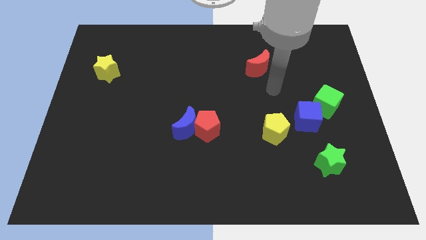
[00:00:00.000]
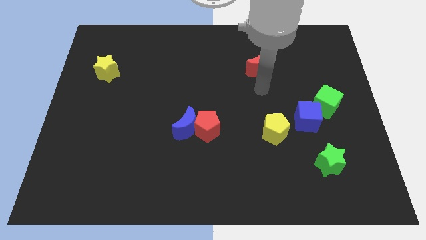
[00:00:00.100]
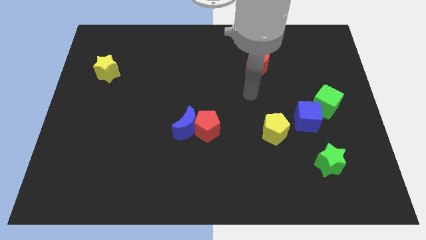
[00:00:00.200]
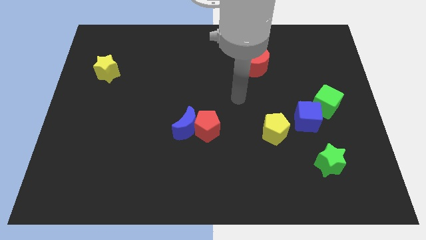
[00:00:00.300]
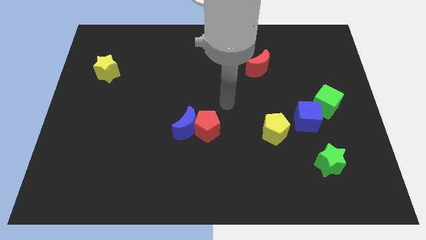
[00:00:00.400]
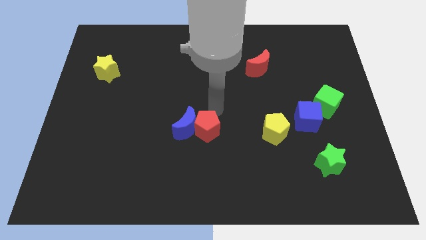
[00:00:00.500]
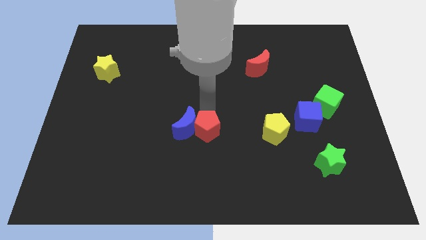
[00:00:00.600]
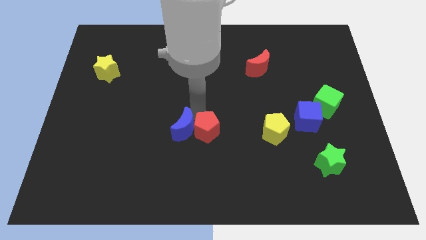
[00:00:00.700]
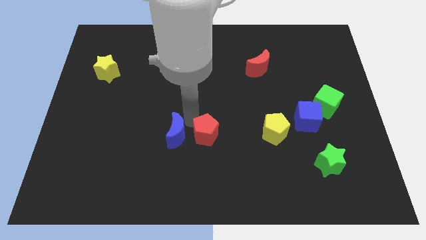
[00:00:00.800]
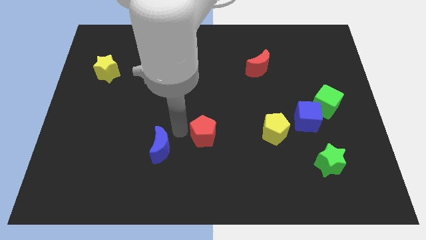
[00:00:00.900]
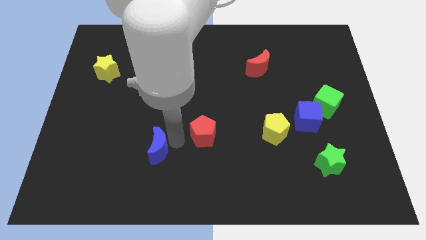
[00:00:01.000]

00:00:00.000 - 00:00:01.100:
separate the red pentagon from the blue moon

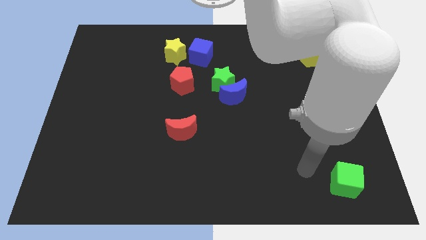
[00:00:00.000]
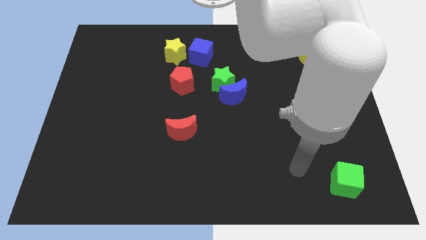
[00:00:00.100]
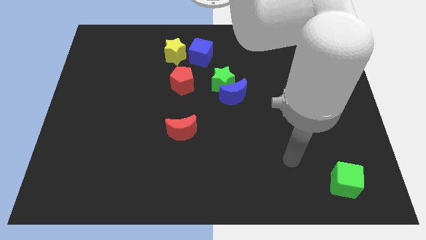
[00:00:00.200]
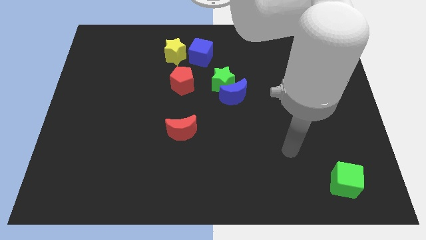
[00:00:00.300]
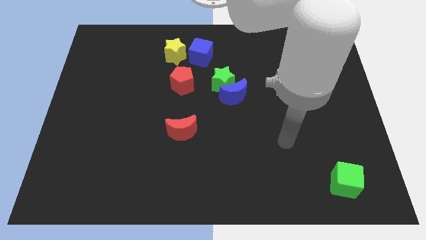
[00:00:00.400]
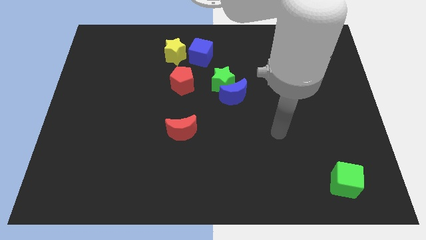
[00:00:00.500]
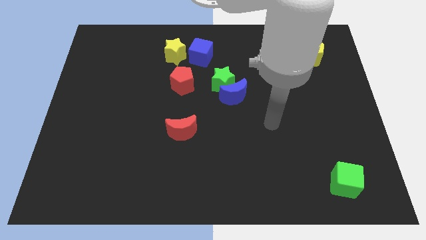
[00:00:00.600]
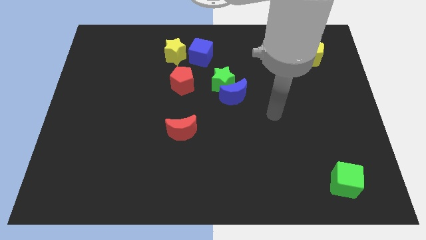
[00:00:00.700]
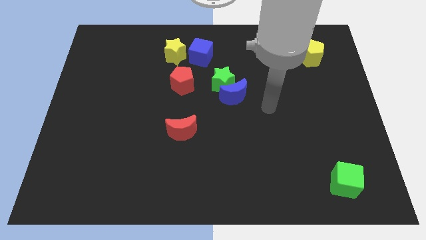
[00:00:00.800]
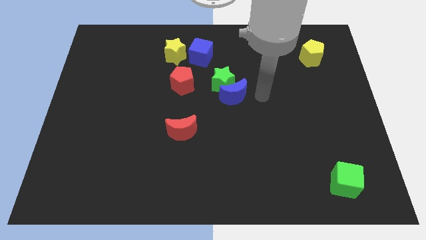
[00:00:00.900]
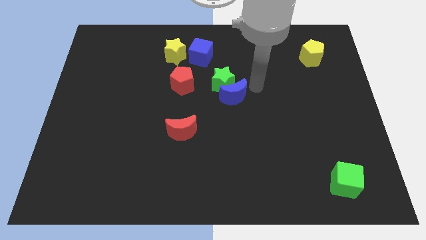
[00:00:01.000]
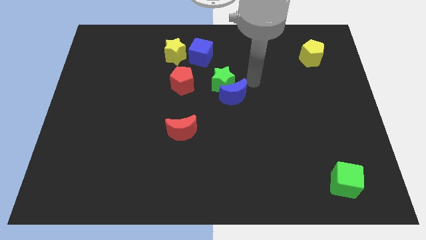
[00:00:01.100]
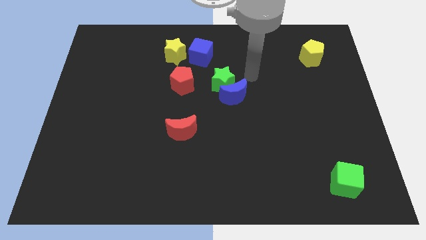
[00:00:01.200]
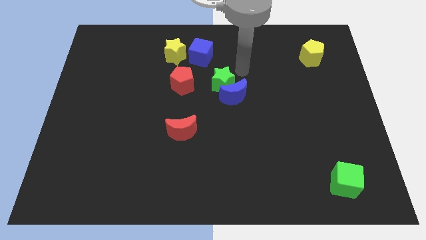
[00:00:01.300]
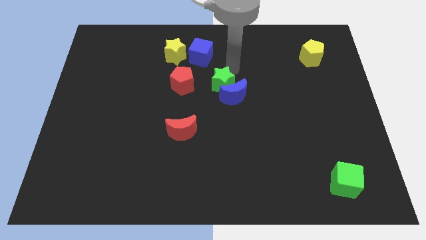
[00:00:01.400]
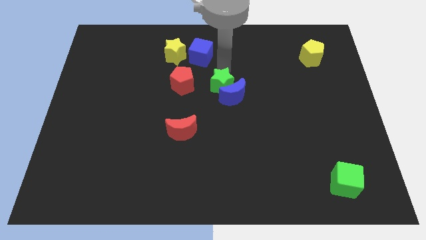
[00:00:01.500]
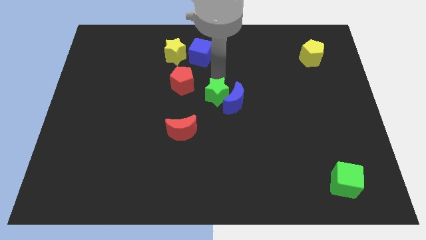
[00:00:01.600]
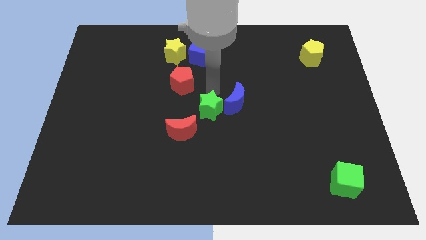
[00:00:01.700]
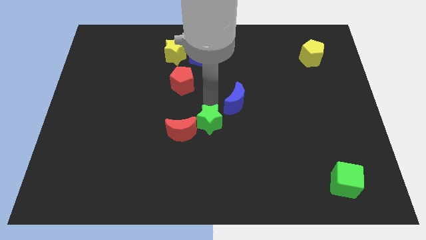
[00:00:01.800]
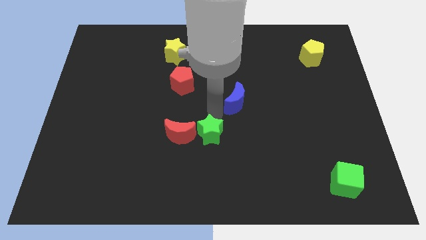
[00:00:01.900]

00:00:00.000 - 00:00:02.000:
move the blue moon away from the green star

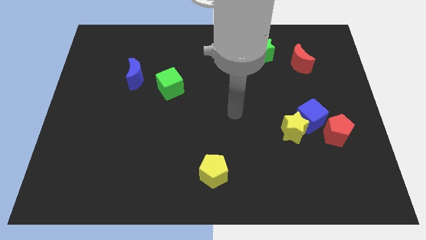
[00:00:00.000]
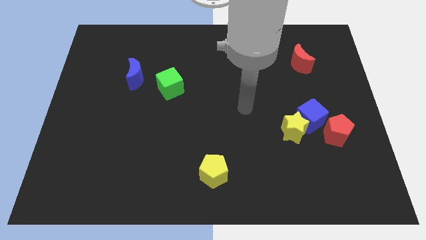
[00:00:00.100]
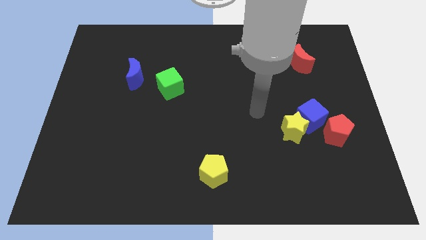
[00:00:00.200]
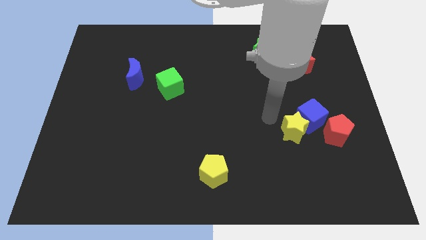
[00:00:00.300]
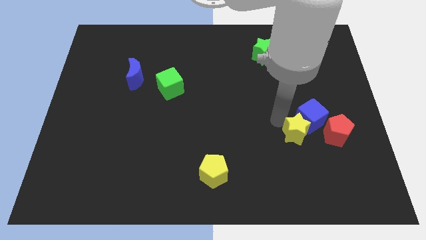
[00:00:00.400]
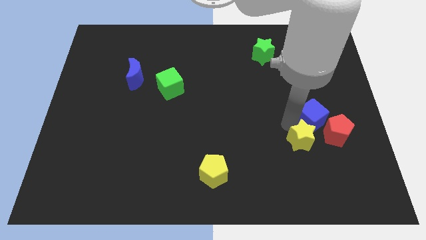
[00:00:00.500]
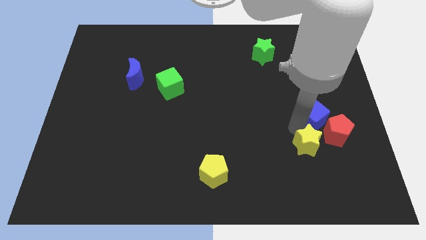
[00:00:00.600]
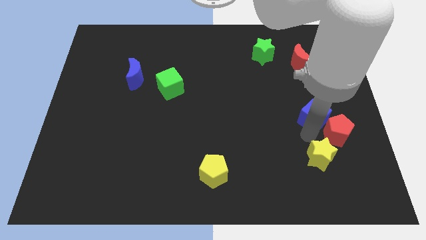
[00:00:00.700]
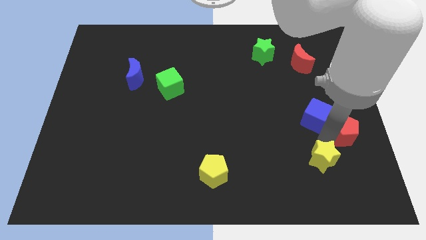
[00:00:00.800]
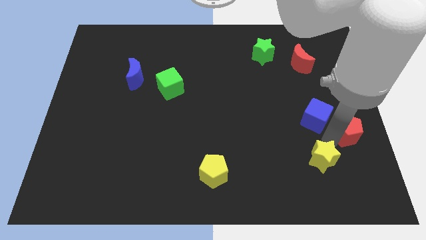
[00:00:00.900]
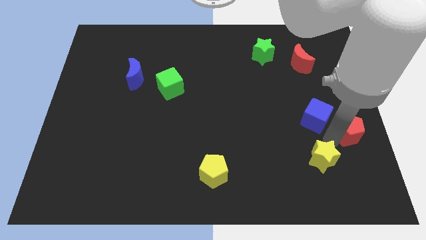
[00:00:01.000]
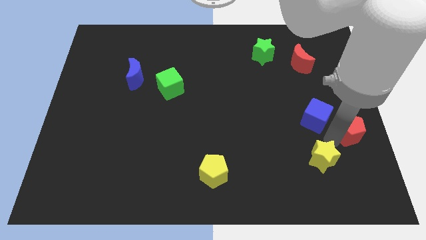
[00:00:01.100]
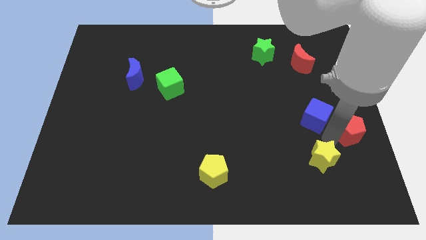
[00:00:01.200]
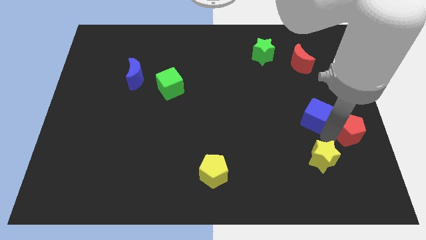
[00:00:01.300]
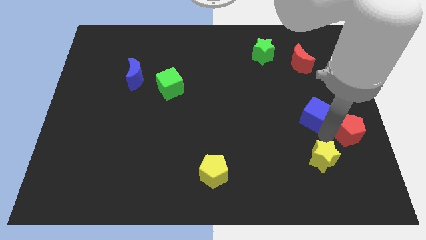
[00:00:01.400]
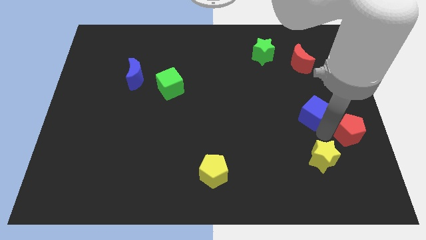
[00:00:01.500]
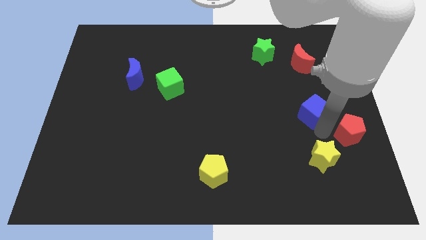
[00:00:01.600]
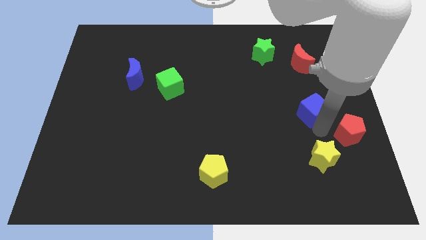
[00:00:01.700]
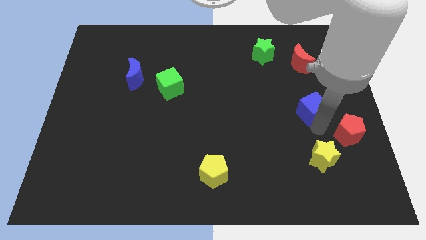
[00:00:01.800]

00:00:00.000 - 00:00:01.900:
separate the blue cube from the yellow star and red pentagon

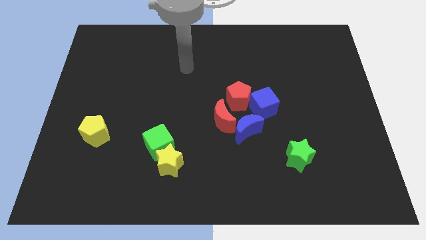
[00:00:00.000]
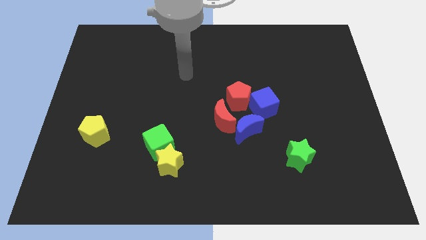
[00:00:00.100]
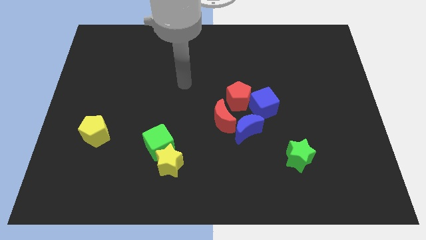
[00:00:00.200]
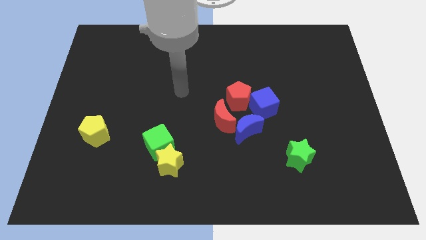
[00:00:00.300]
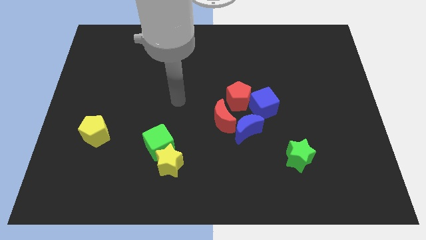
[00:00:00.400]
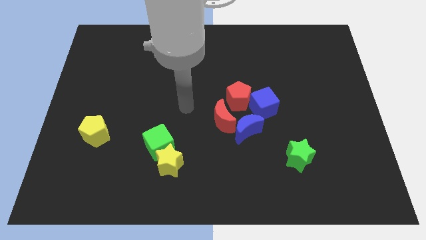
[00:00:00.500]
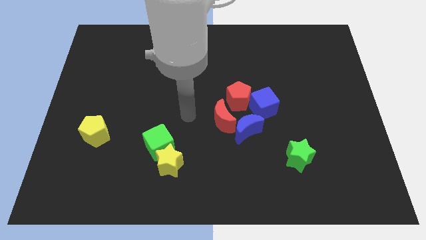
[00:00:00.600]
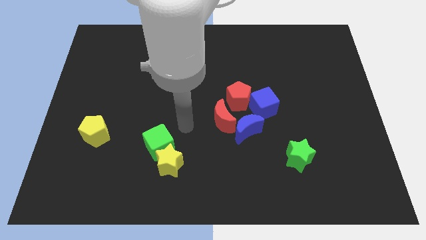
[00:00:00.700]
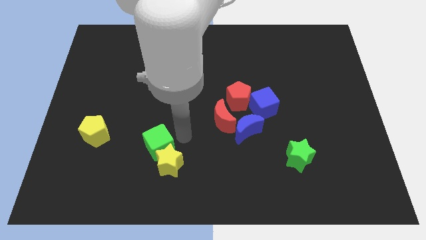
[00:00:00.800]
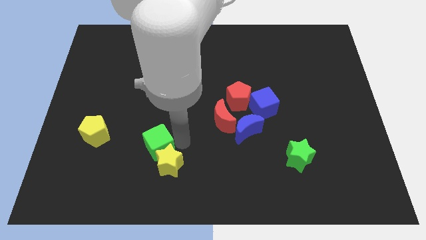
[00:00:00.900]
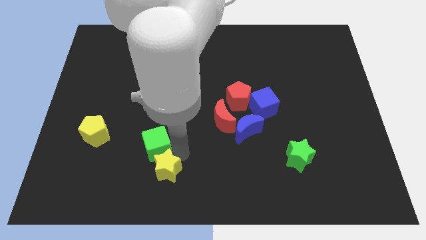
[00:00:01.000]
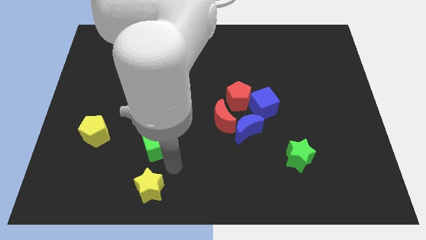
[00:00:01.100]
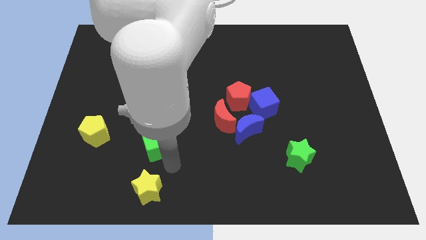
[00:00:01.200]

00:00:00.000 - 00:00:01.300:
pull the green cube apart from the yellow star

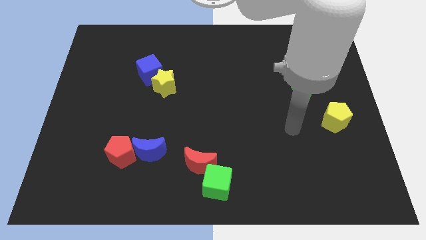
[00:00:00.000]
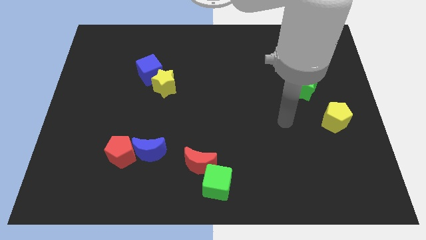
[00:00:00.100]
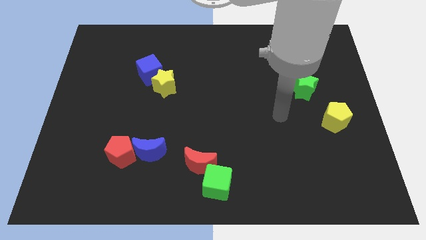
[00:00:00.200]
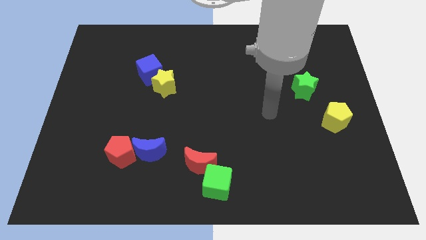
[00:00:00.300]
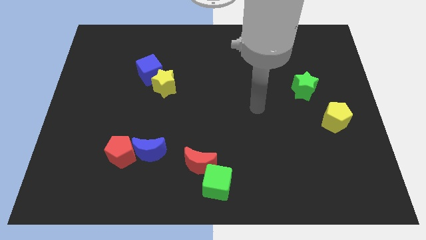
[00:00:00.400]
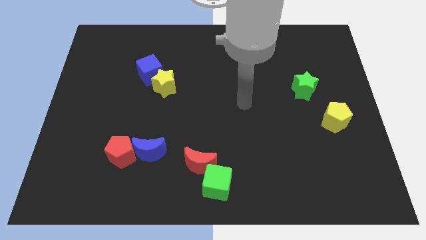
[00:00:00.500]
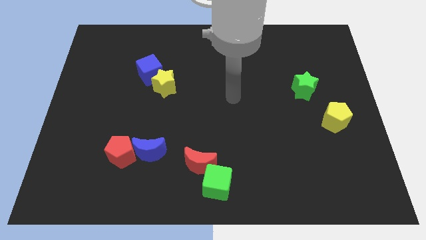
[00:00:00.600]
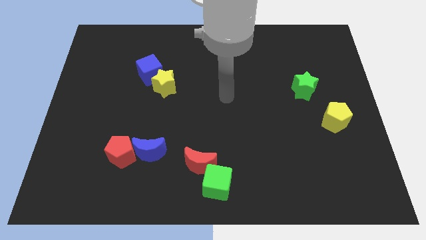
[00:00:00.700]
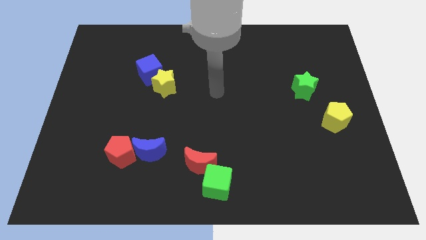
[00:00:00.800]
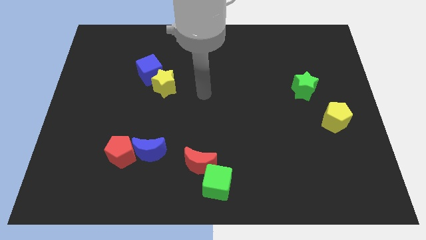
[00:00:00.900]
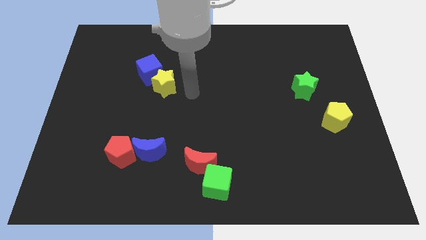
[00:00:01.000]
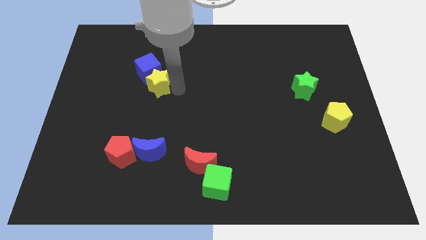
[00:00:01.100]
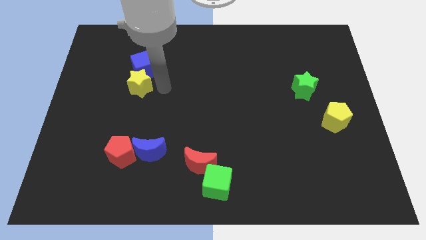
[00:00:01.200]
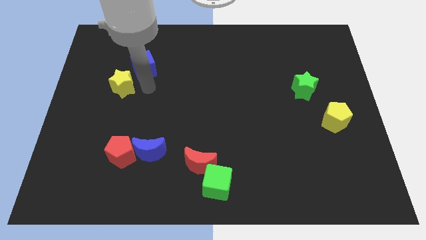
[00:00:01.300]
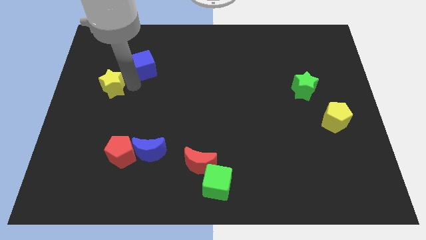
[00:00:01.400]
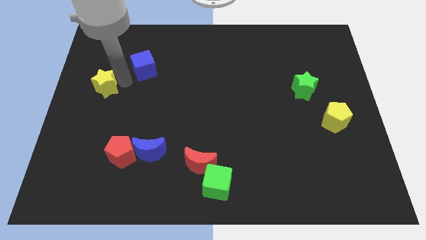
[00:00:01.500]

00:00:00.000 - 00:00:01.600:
pull the blue cube apart from the yellow star

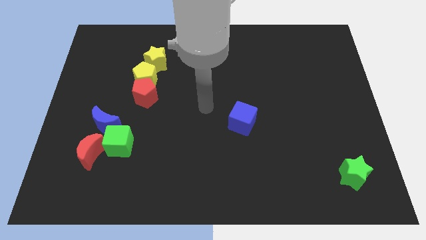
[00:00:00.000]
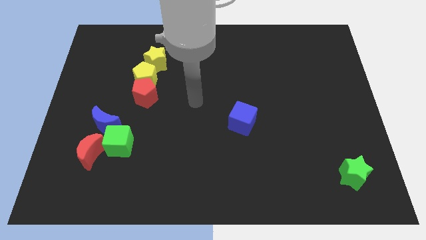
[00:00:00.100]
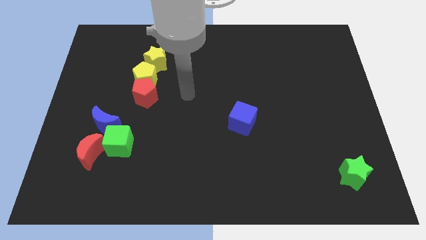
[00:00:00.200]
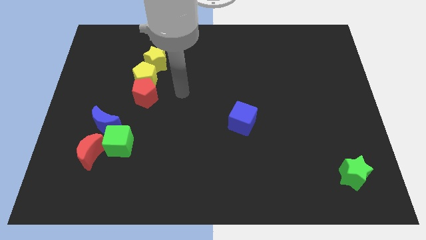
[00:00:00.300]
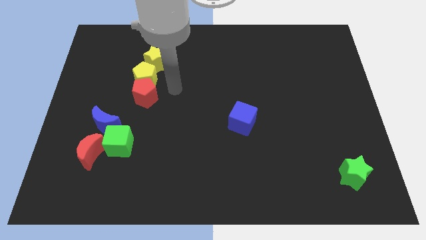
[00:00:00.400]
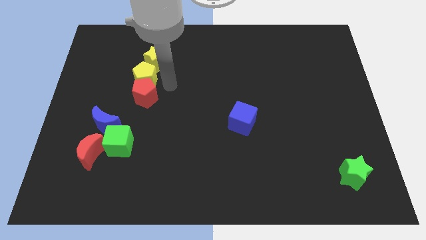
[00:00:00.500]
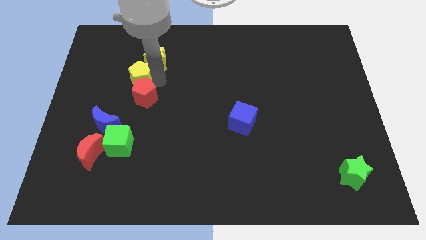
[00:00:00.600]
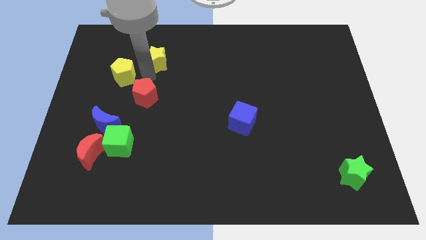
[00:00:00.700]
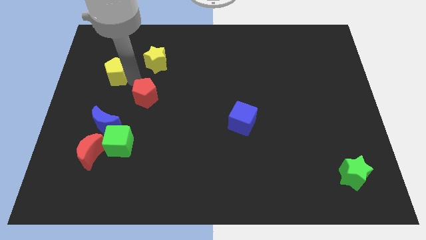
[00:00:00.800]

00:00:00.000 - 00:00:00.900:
move the red pentagon away from the yellow pentagon

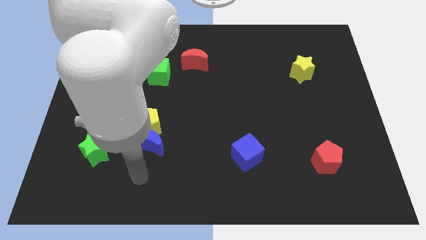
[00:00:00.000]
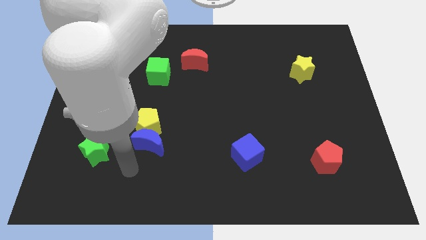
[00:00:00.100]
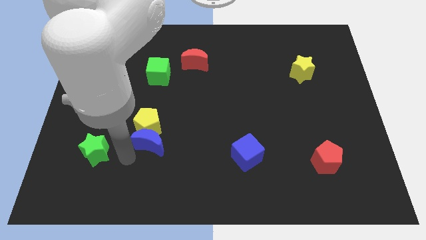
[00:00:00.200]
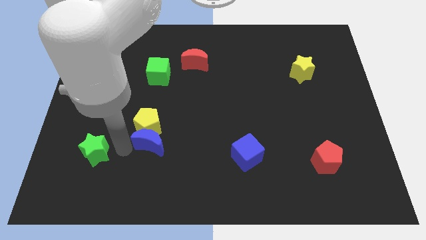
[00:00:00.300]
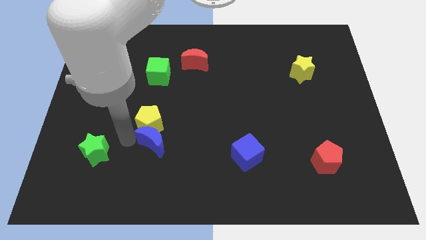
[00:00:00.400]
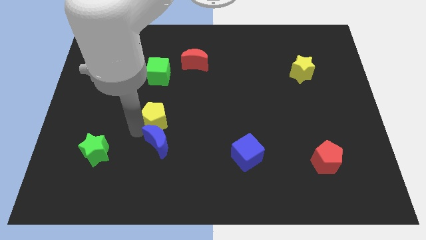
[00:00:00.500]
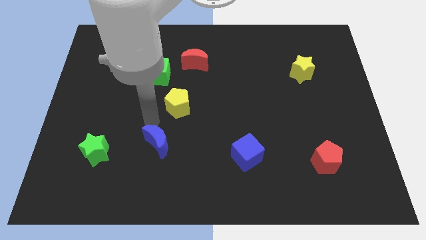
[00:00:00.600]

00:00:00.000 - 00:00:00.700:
move the blue moon away from the yellow pentagon
